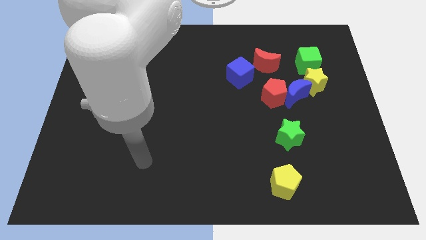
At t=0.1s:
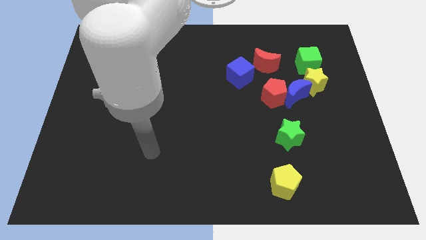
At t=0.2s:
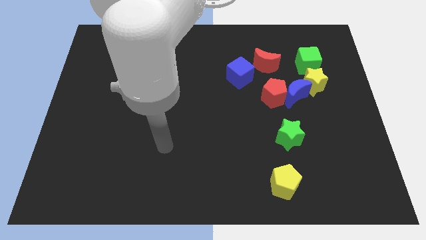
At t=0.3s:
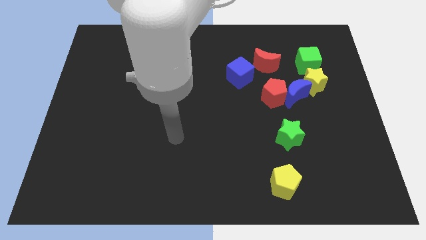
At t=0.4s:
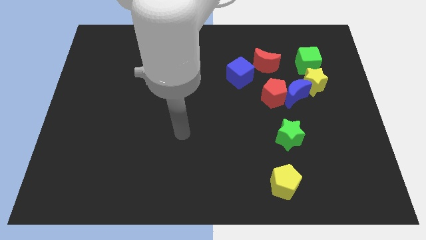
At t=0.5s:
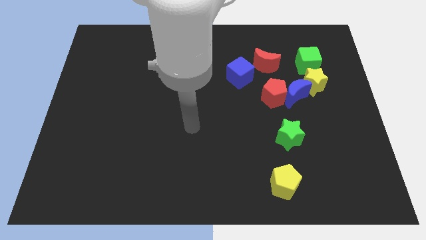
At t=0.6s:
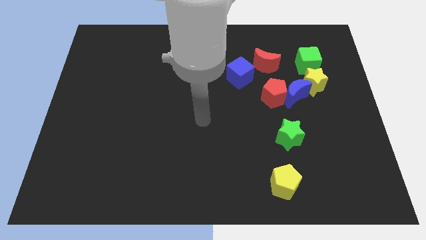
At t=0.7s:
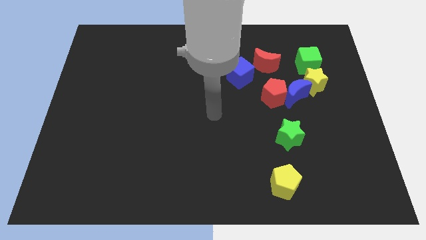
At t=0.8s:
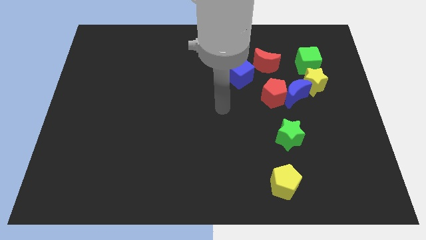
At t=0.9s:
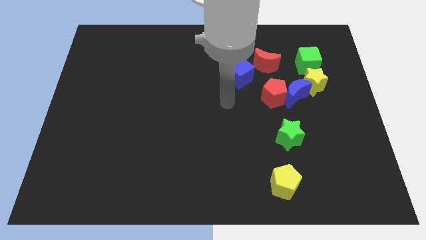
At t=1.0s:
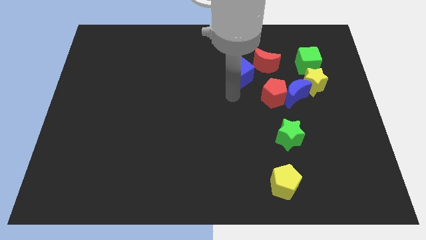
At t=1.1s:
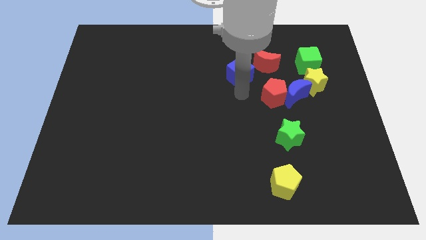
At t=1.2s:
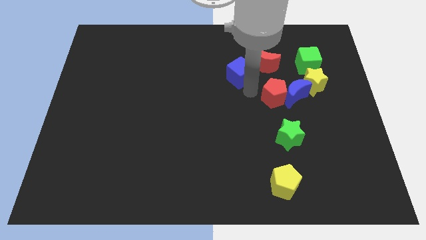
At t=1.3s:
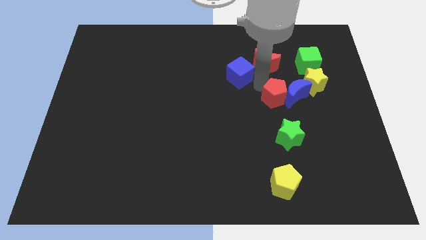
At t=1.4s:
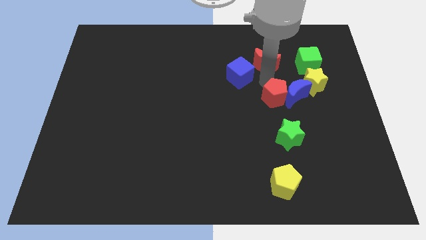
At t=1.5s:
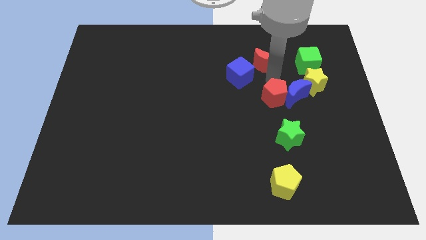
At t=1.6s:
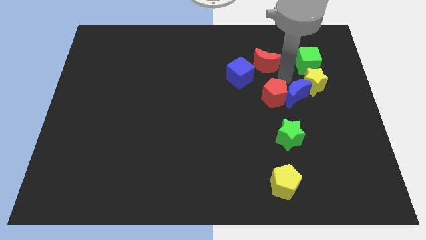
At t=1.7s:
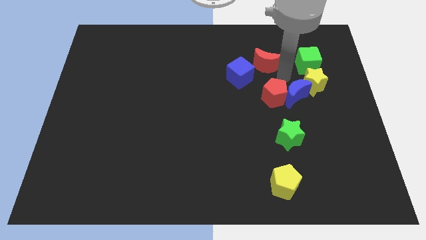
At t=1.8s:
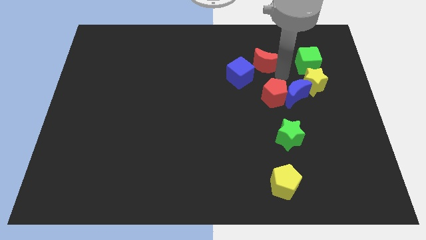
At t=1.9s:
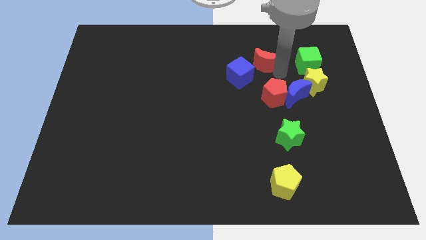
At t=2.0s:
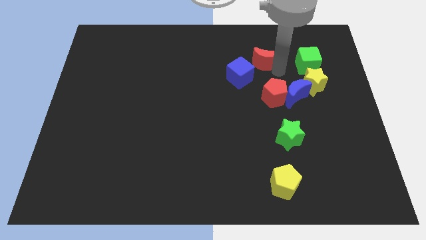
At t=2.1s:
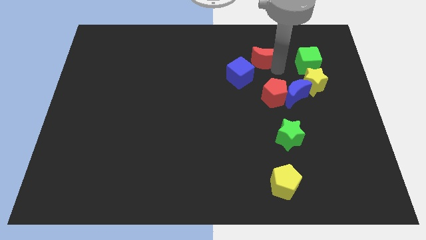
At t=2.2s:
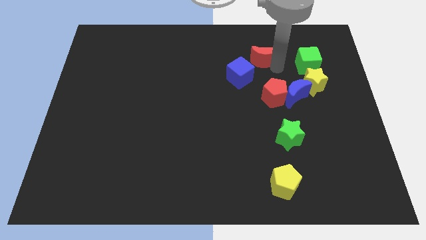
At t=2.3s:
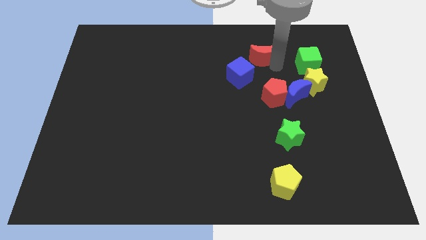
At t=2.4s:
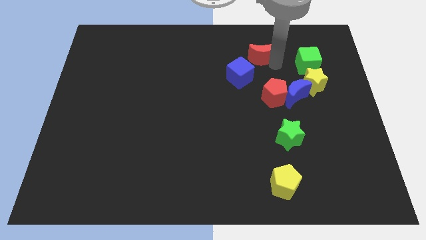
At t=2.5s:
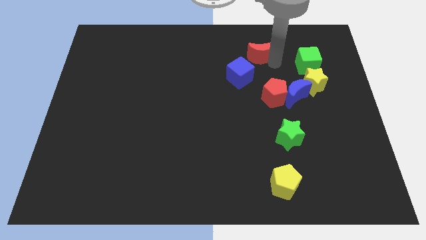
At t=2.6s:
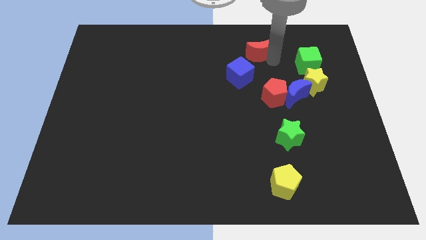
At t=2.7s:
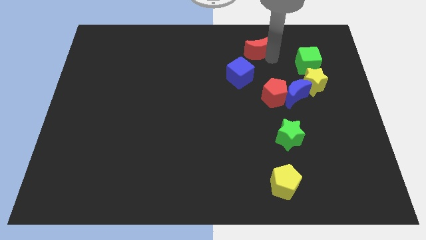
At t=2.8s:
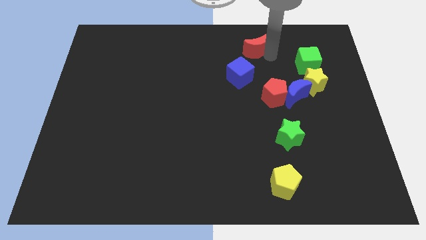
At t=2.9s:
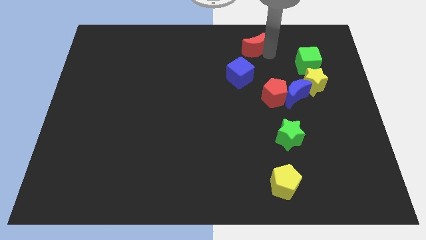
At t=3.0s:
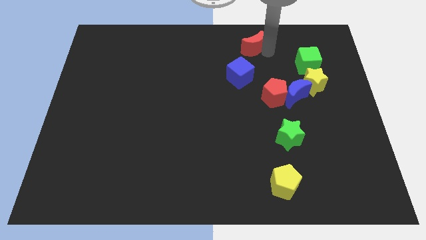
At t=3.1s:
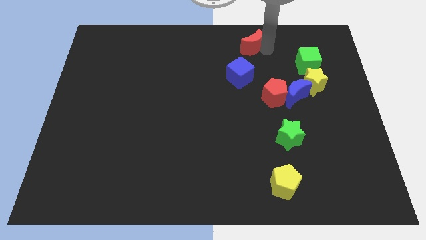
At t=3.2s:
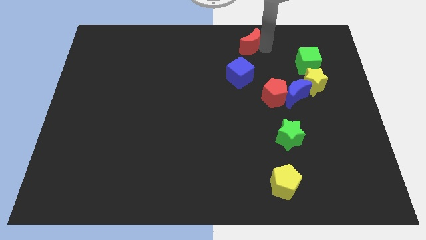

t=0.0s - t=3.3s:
move the red moon to the towards your base

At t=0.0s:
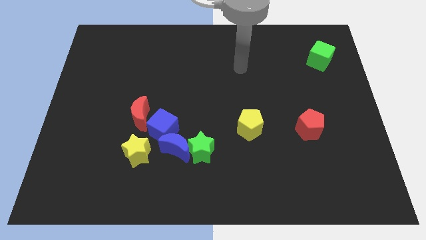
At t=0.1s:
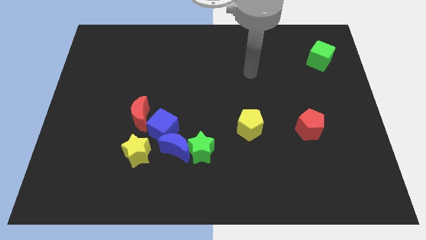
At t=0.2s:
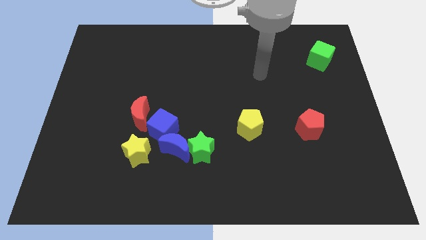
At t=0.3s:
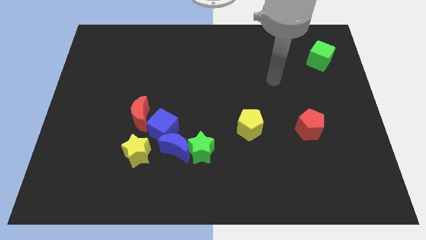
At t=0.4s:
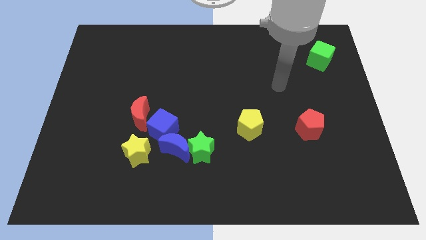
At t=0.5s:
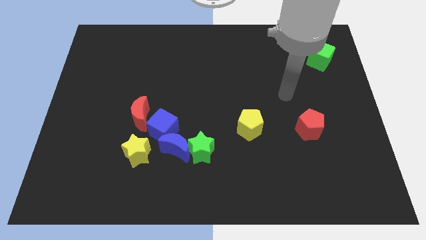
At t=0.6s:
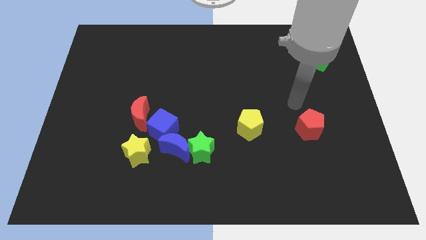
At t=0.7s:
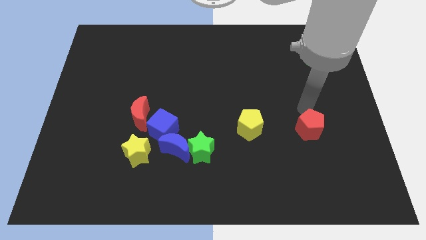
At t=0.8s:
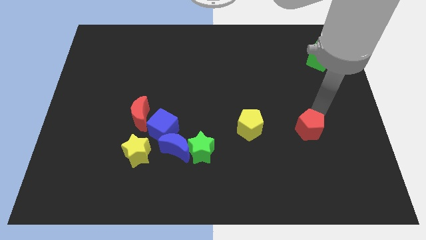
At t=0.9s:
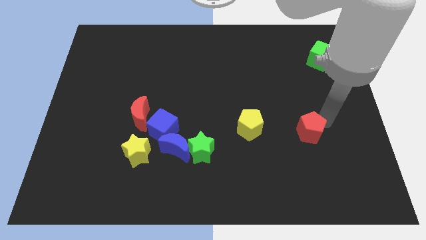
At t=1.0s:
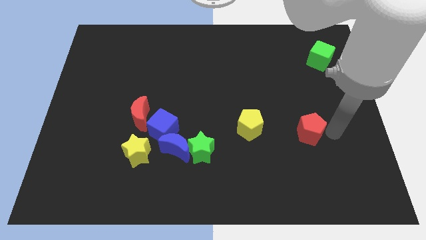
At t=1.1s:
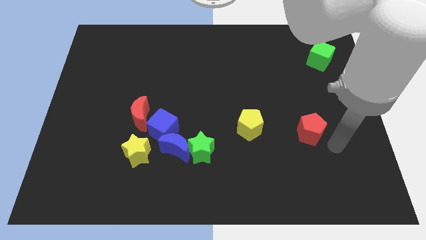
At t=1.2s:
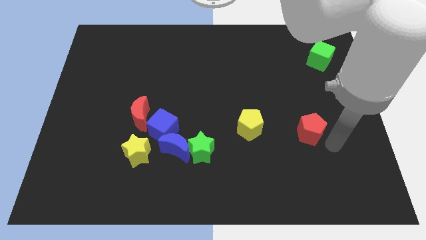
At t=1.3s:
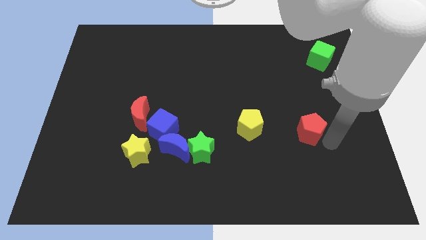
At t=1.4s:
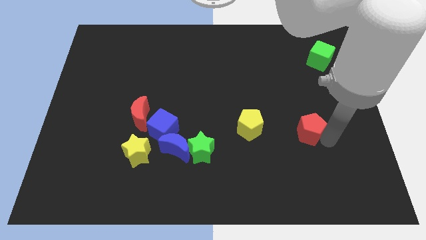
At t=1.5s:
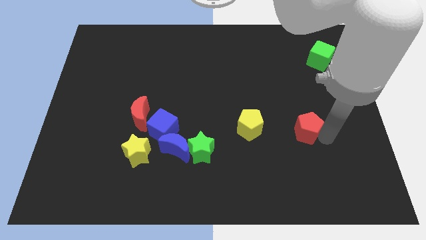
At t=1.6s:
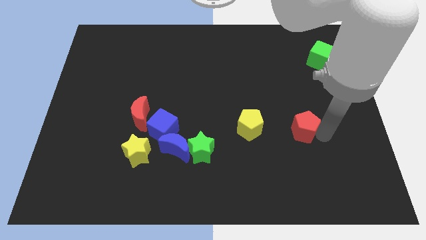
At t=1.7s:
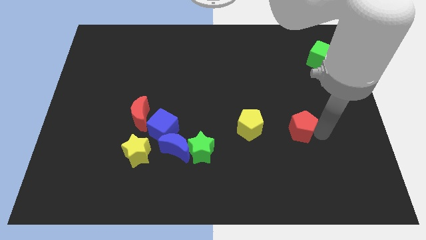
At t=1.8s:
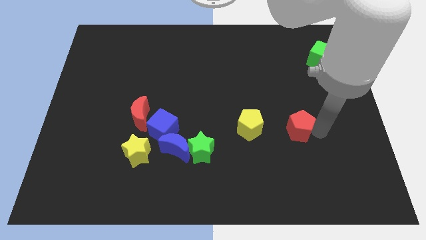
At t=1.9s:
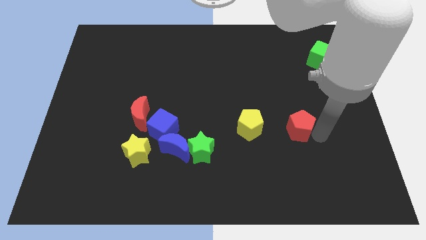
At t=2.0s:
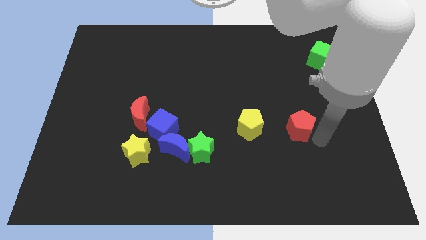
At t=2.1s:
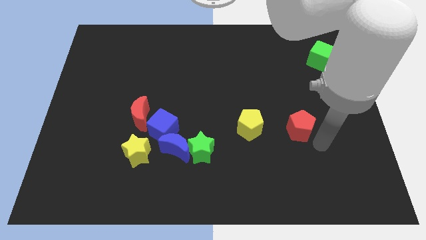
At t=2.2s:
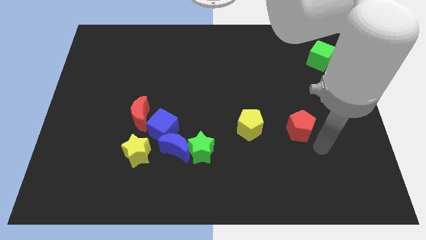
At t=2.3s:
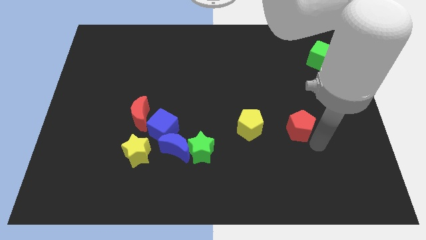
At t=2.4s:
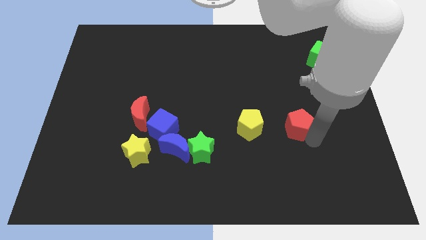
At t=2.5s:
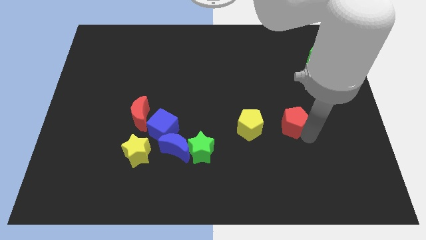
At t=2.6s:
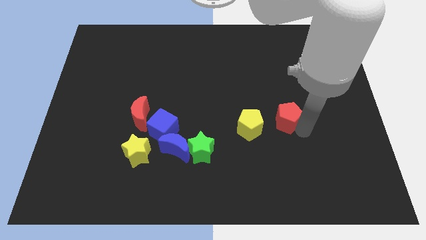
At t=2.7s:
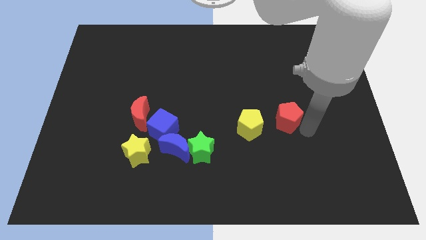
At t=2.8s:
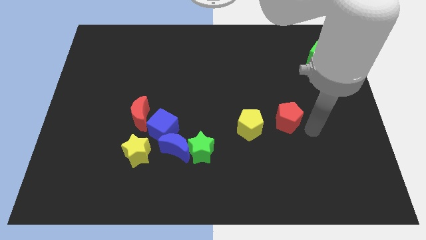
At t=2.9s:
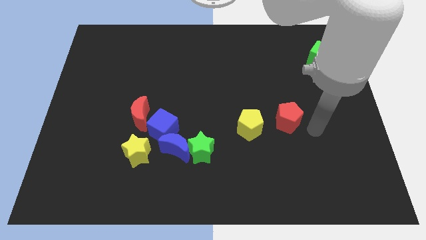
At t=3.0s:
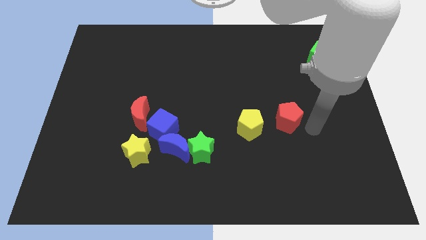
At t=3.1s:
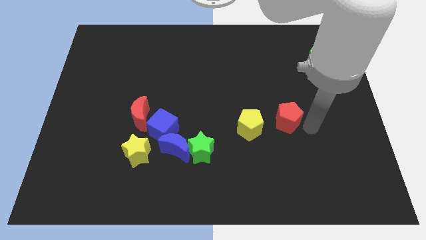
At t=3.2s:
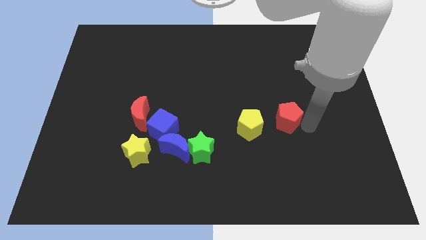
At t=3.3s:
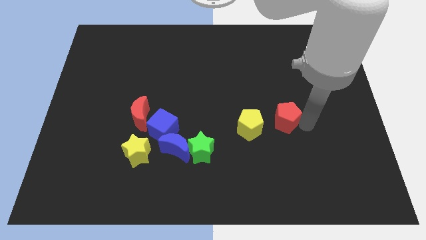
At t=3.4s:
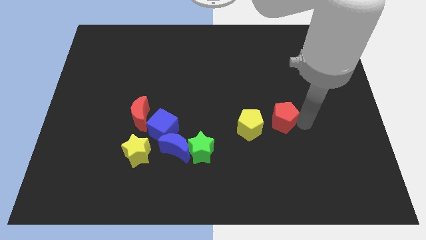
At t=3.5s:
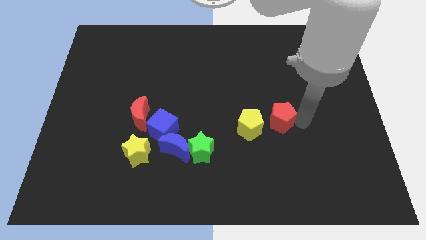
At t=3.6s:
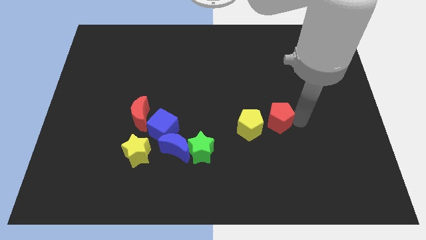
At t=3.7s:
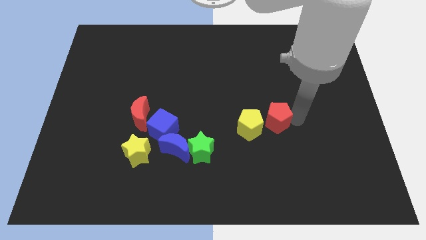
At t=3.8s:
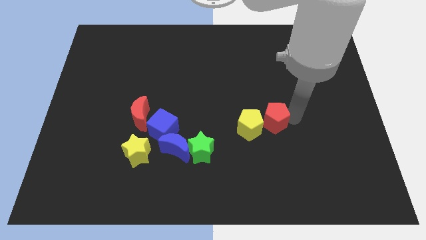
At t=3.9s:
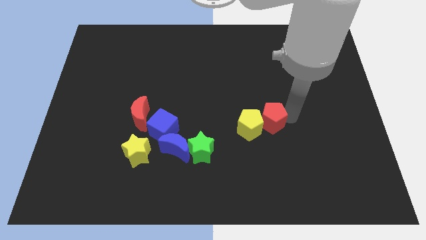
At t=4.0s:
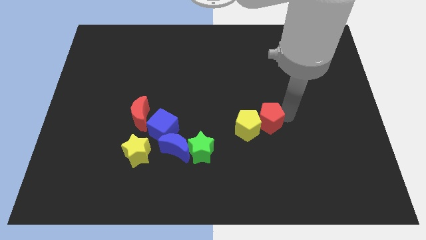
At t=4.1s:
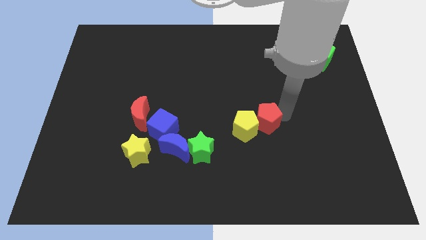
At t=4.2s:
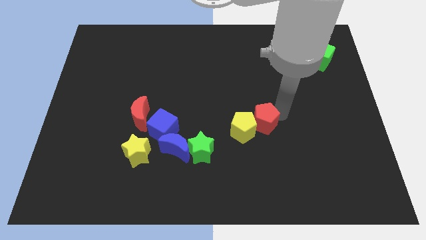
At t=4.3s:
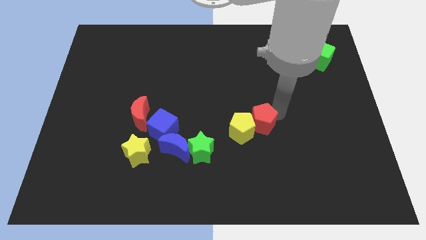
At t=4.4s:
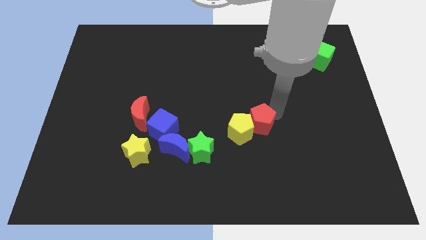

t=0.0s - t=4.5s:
push the red pentagon to the middle of the board

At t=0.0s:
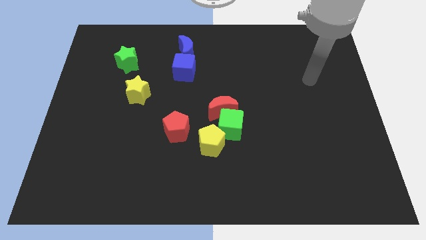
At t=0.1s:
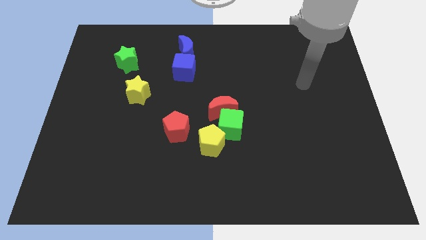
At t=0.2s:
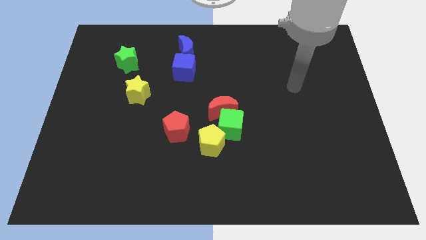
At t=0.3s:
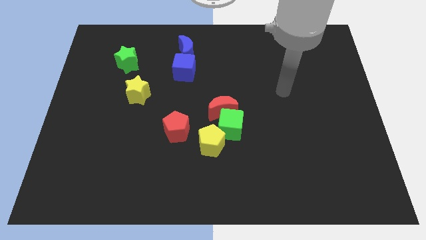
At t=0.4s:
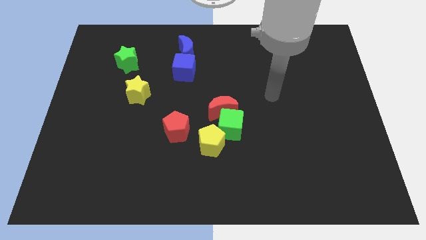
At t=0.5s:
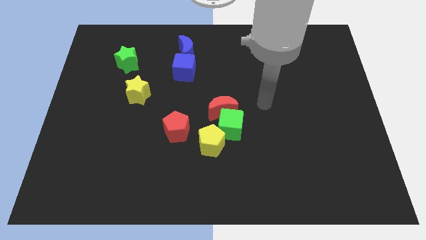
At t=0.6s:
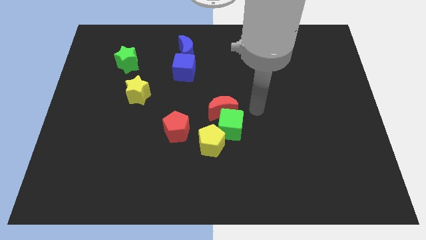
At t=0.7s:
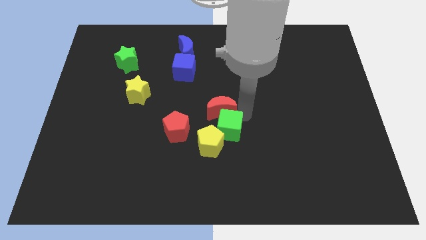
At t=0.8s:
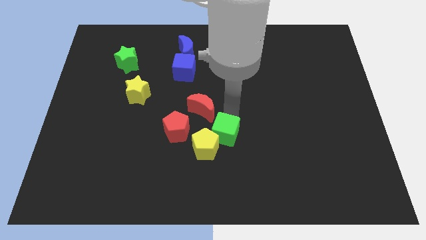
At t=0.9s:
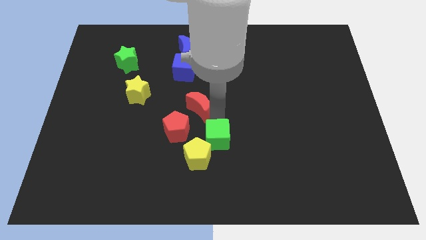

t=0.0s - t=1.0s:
slide the yellow pentagon to the bottom side
